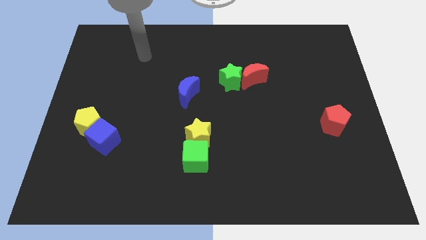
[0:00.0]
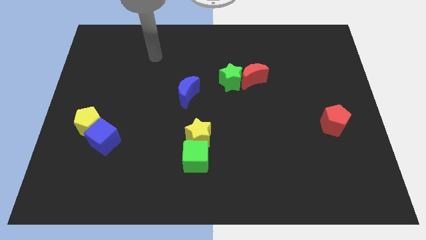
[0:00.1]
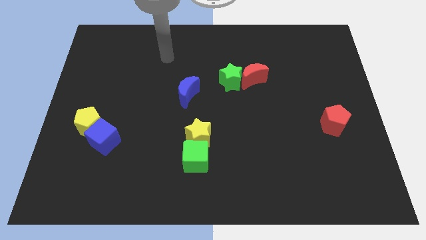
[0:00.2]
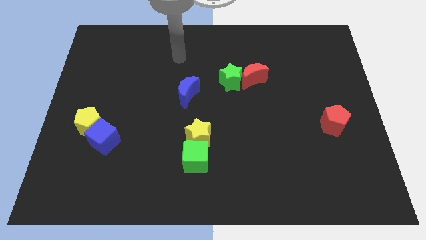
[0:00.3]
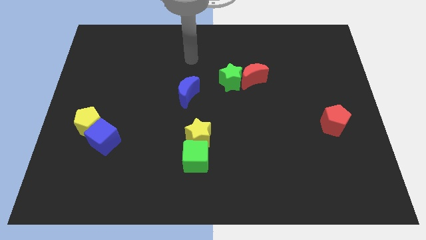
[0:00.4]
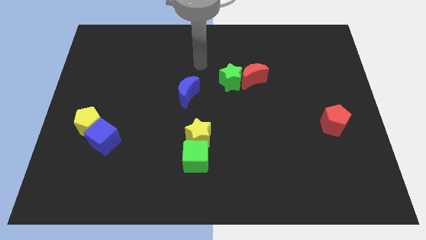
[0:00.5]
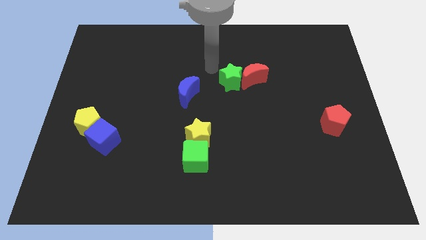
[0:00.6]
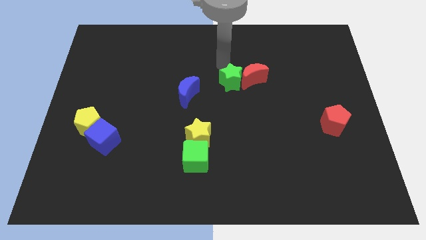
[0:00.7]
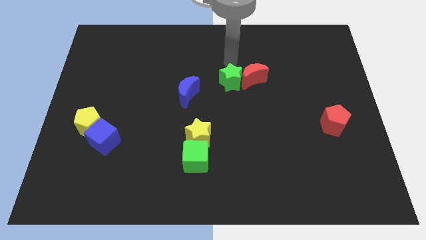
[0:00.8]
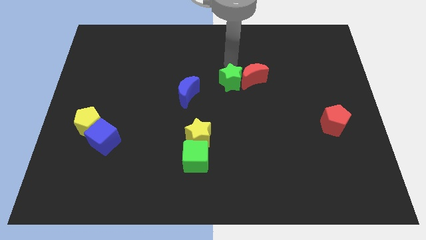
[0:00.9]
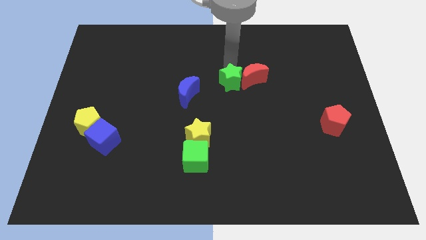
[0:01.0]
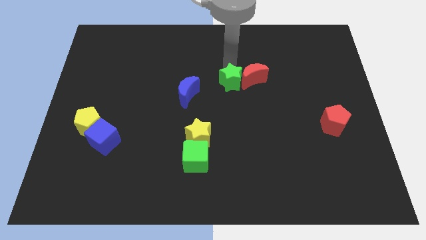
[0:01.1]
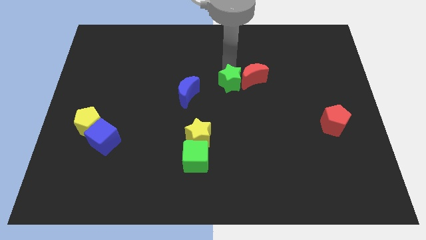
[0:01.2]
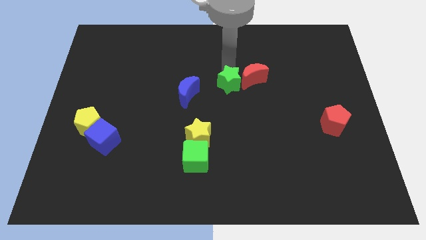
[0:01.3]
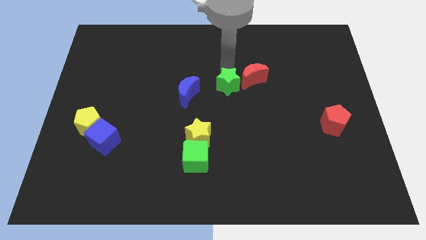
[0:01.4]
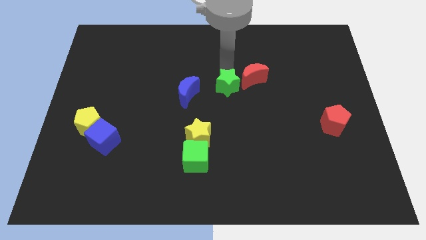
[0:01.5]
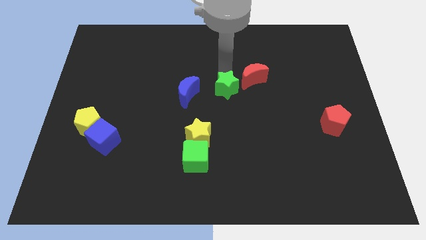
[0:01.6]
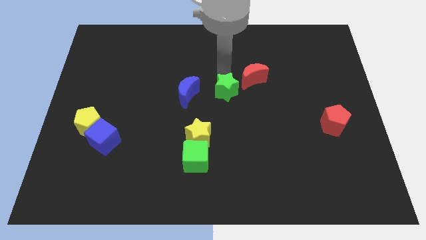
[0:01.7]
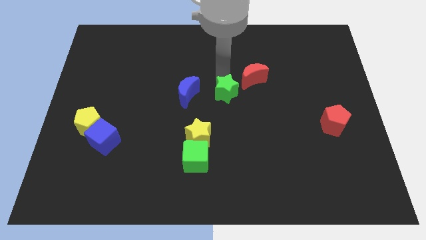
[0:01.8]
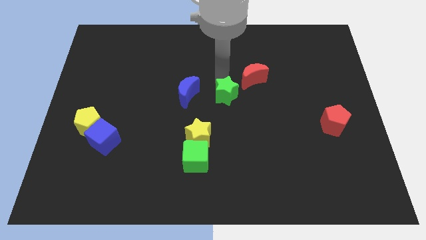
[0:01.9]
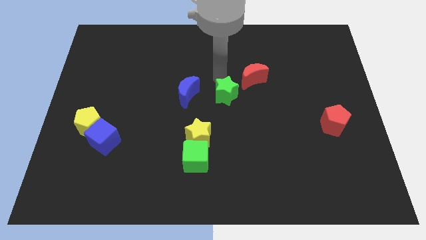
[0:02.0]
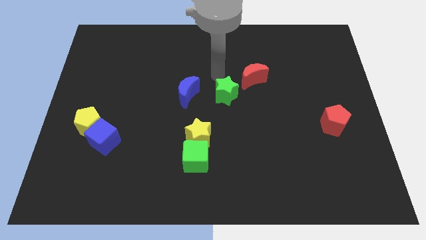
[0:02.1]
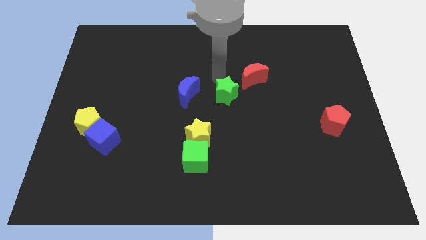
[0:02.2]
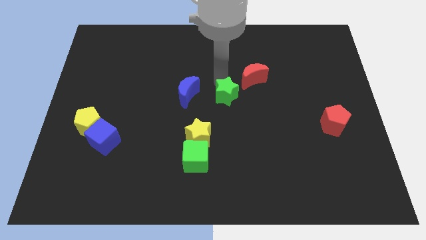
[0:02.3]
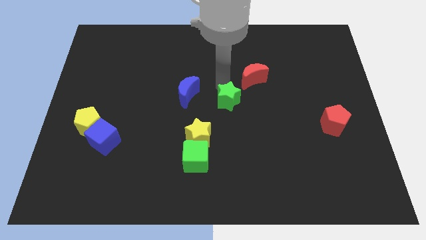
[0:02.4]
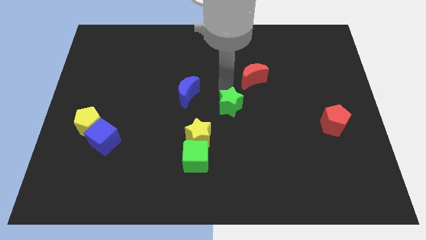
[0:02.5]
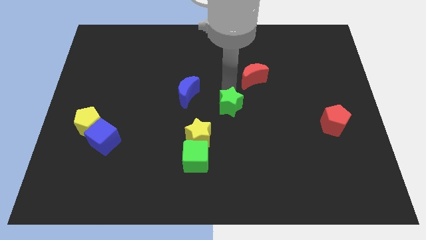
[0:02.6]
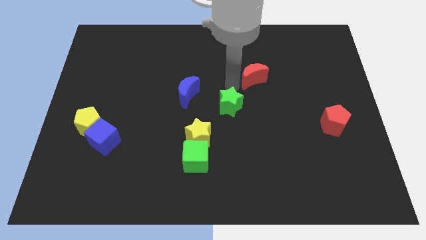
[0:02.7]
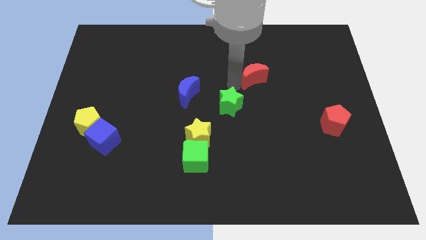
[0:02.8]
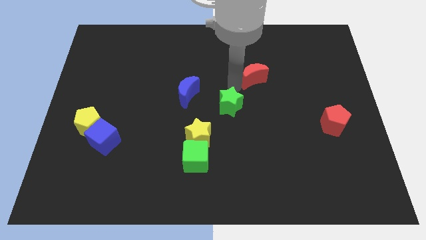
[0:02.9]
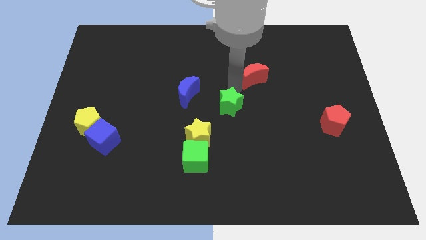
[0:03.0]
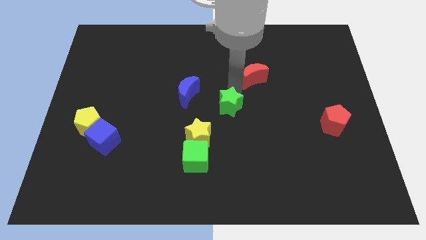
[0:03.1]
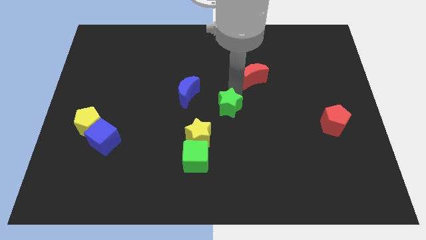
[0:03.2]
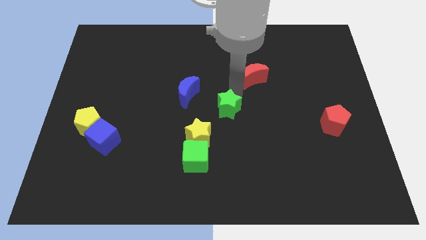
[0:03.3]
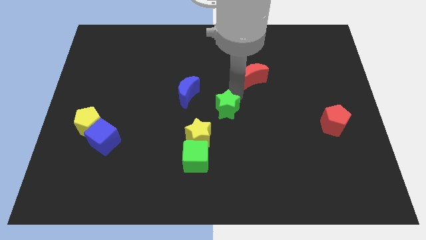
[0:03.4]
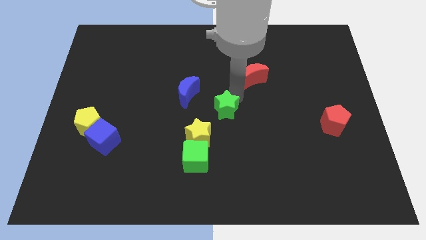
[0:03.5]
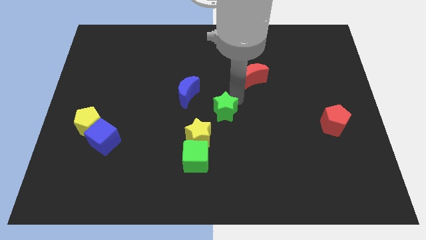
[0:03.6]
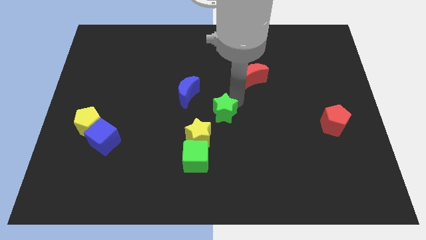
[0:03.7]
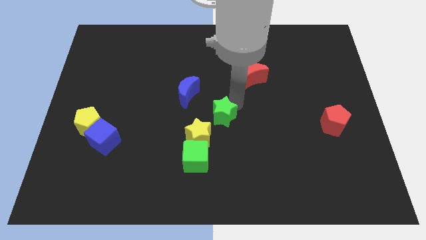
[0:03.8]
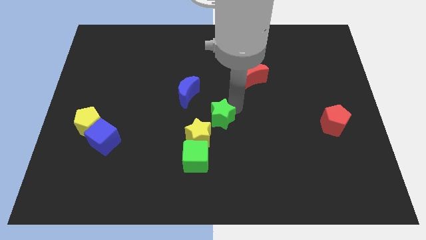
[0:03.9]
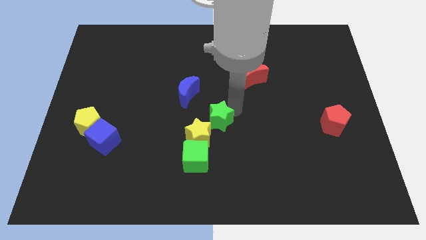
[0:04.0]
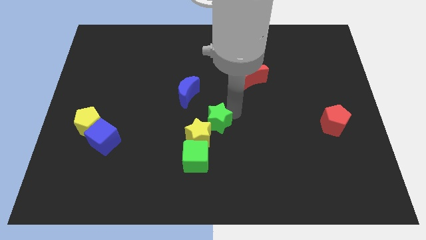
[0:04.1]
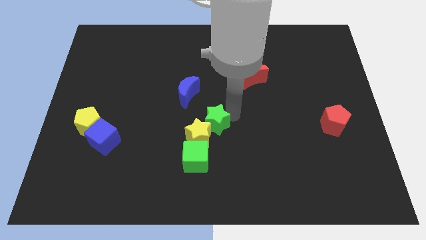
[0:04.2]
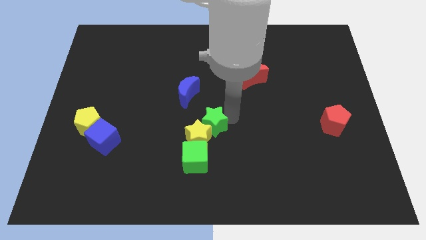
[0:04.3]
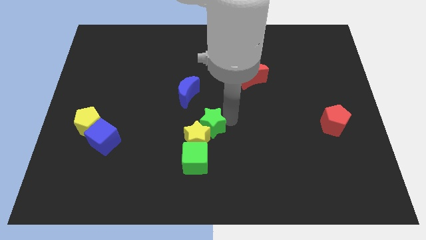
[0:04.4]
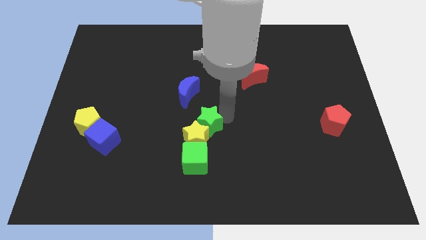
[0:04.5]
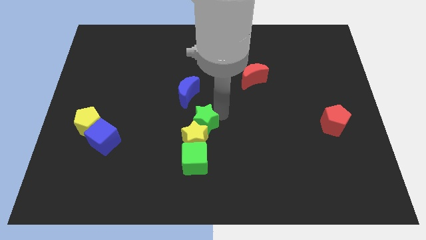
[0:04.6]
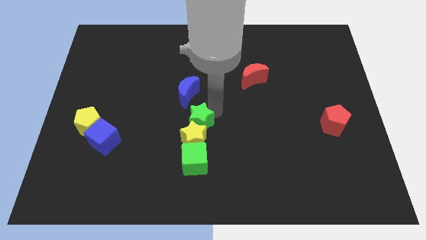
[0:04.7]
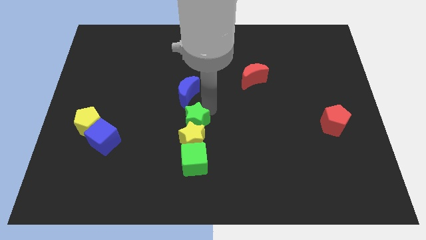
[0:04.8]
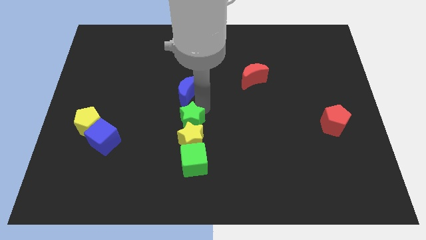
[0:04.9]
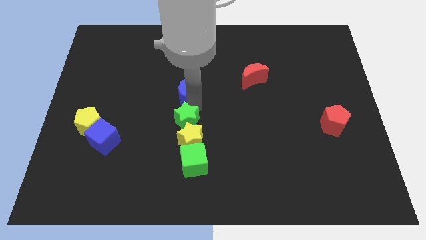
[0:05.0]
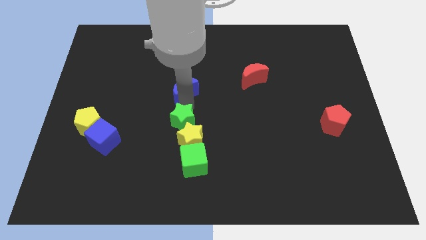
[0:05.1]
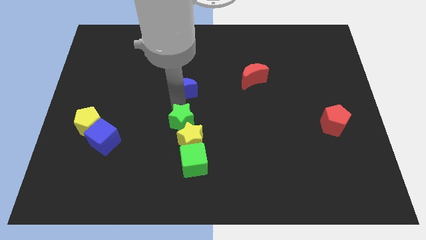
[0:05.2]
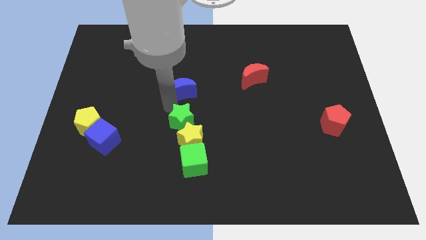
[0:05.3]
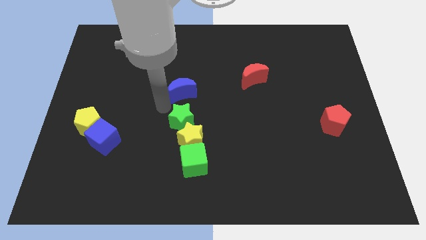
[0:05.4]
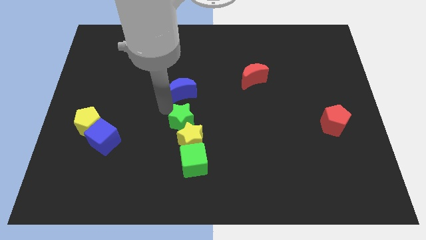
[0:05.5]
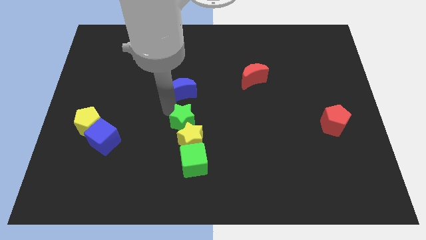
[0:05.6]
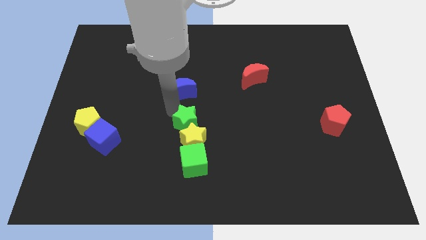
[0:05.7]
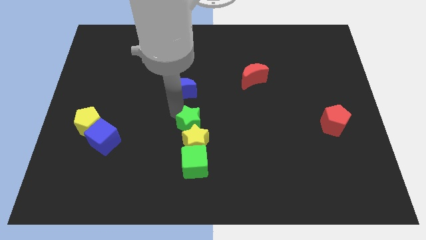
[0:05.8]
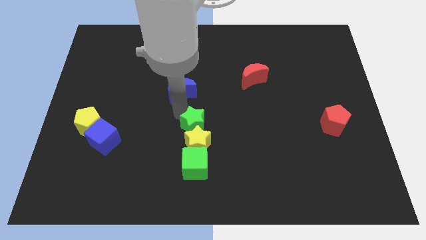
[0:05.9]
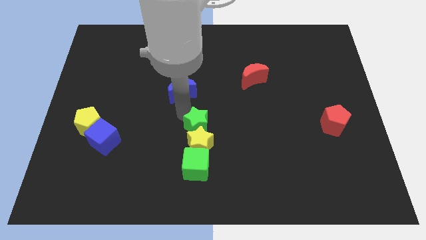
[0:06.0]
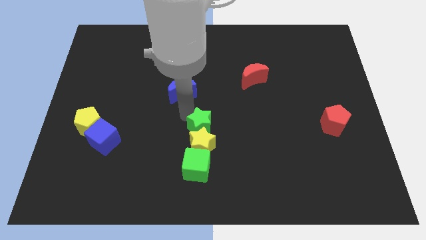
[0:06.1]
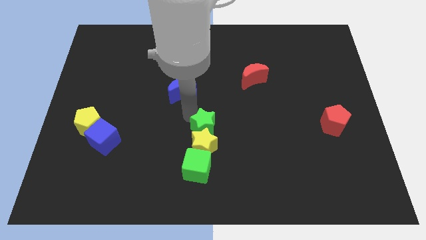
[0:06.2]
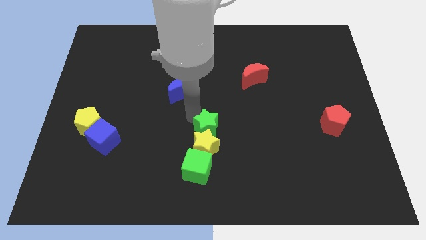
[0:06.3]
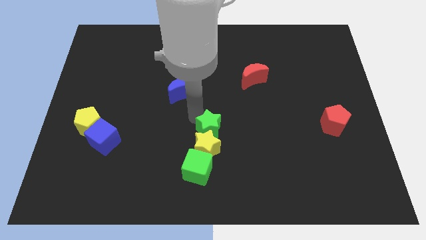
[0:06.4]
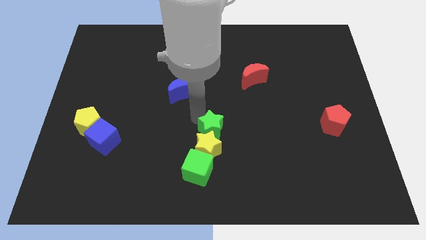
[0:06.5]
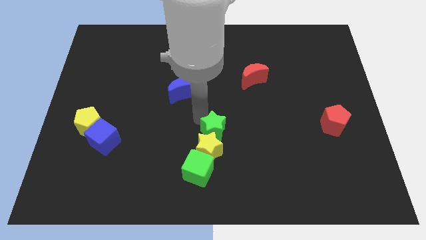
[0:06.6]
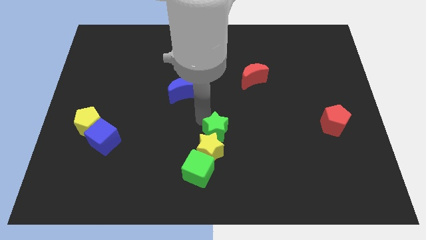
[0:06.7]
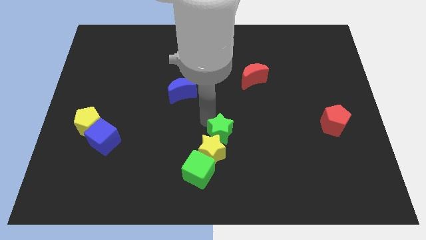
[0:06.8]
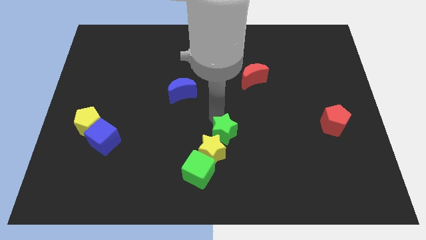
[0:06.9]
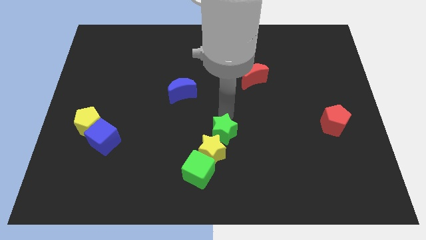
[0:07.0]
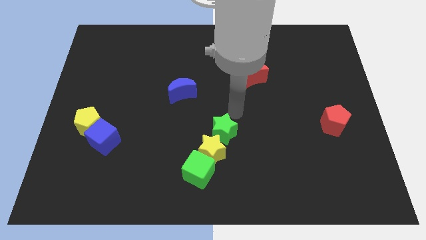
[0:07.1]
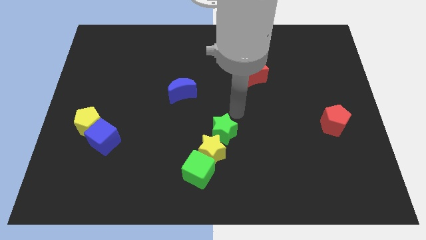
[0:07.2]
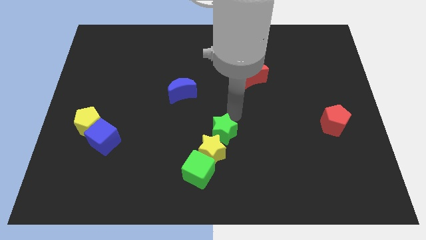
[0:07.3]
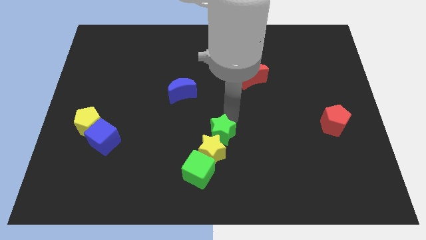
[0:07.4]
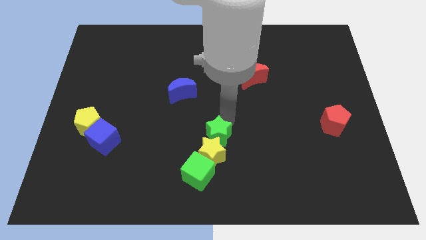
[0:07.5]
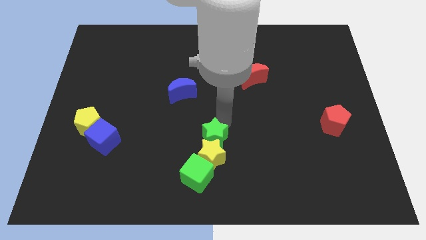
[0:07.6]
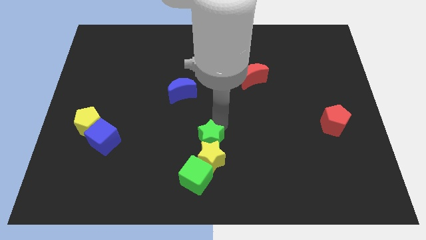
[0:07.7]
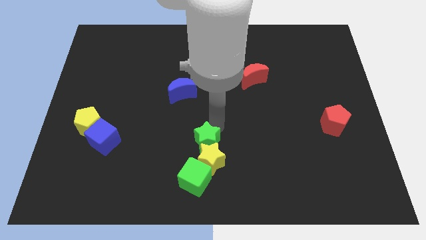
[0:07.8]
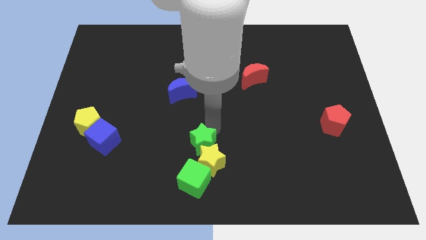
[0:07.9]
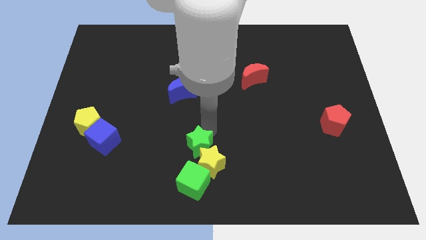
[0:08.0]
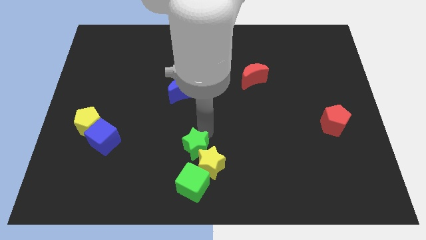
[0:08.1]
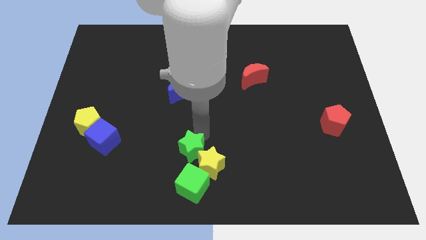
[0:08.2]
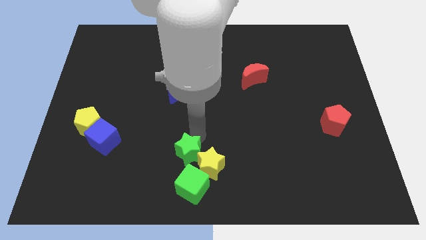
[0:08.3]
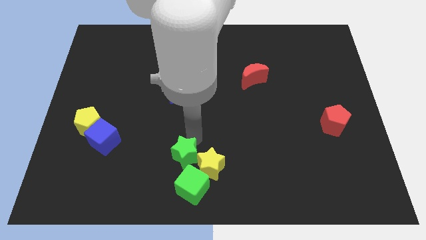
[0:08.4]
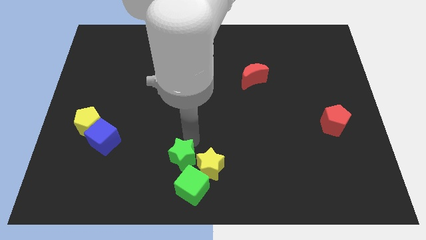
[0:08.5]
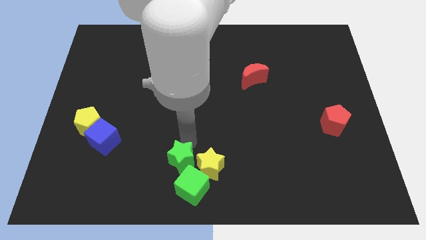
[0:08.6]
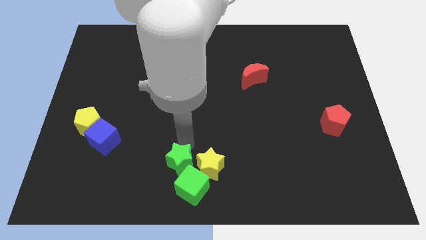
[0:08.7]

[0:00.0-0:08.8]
slide the green star close to the green cube
